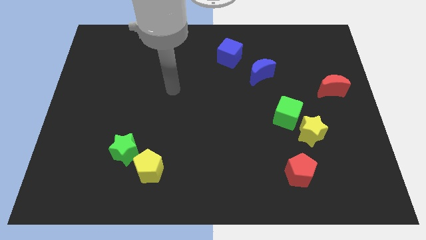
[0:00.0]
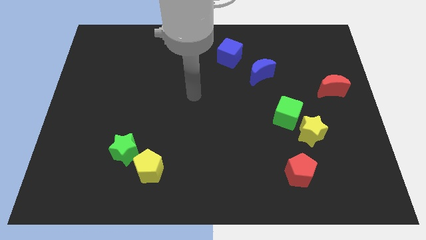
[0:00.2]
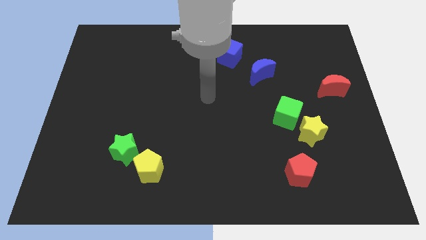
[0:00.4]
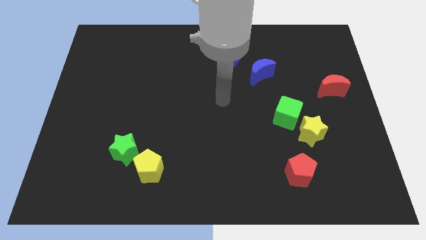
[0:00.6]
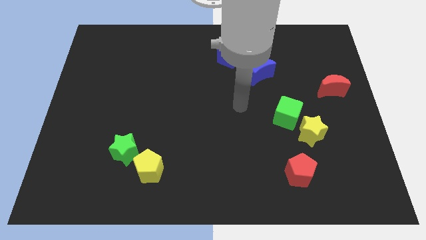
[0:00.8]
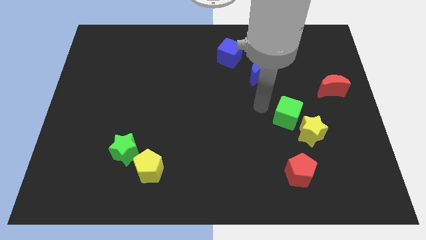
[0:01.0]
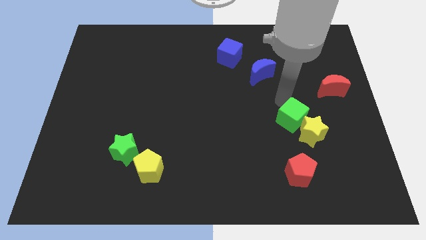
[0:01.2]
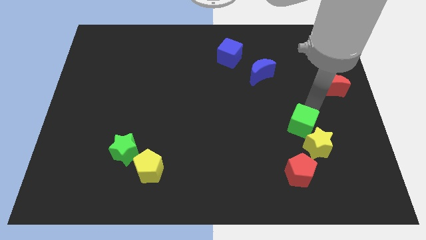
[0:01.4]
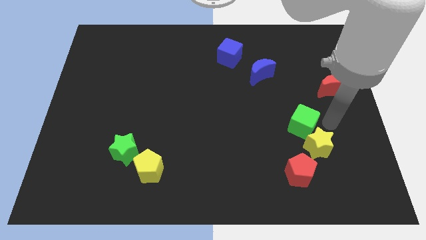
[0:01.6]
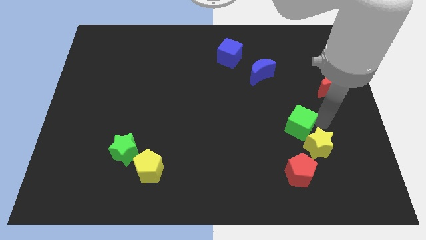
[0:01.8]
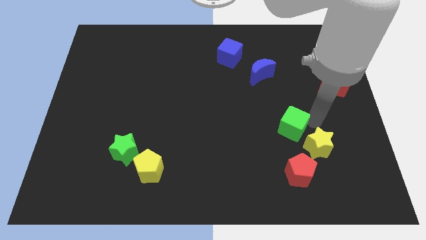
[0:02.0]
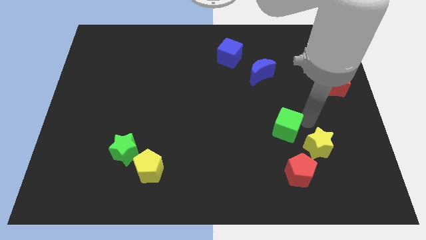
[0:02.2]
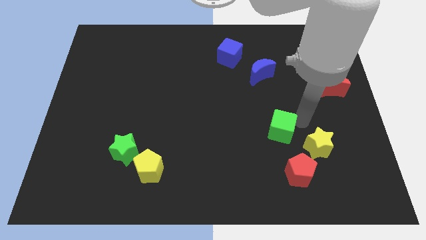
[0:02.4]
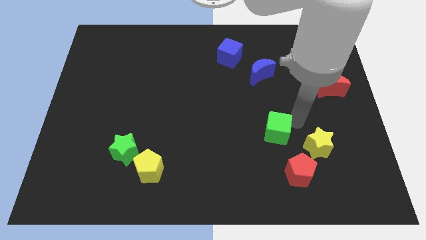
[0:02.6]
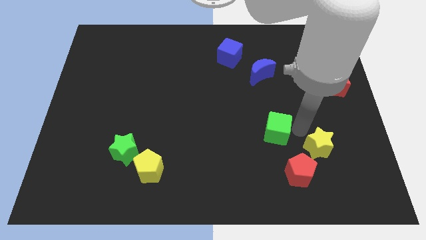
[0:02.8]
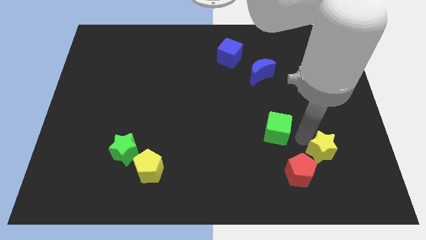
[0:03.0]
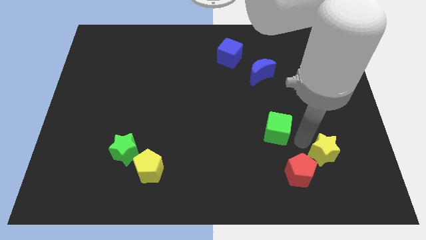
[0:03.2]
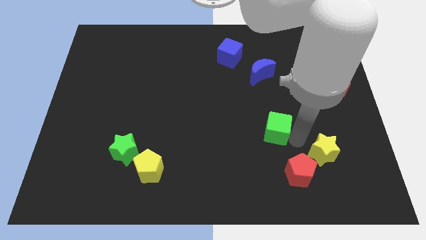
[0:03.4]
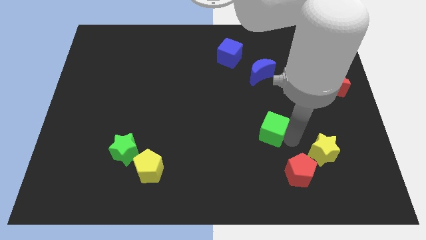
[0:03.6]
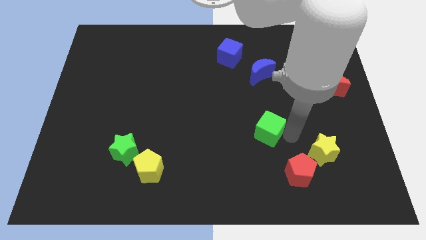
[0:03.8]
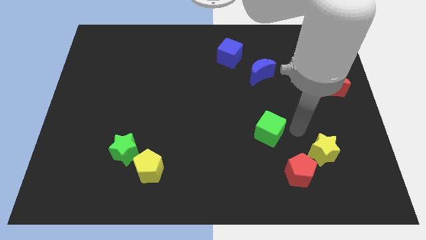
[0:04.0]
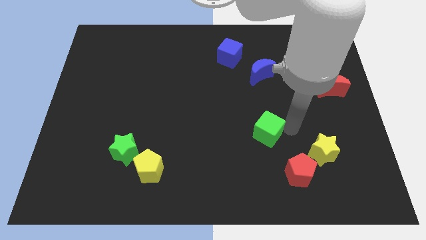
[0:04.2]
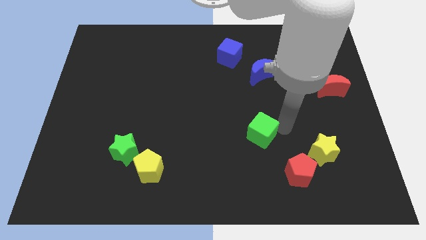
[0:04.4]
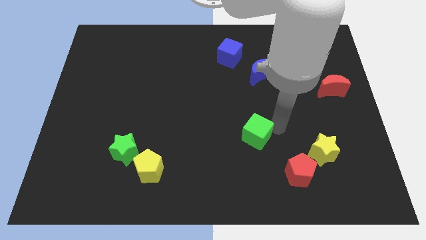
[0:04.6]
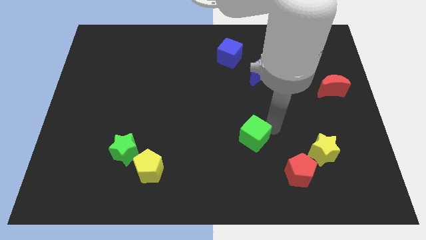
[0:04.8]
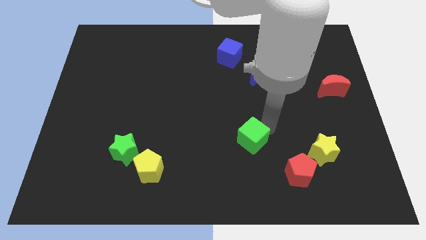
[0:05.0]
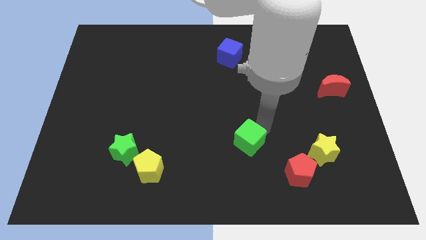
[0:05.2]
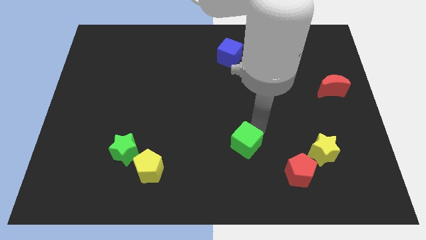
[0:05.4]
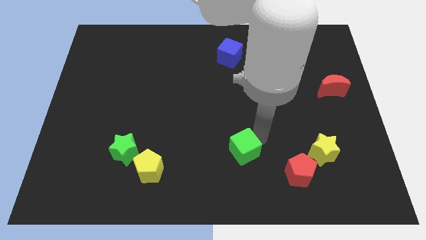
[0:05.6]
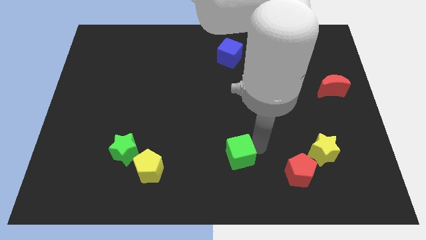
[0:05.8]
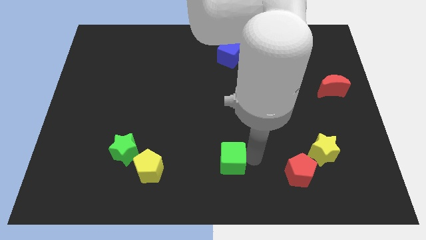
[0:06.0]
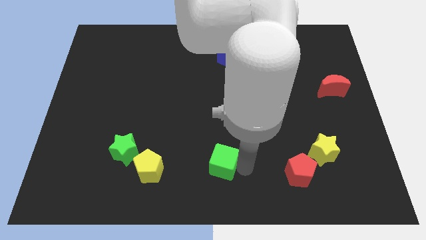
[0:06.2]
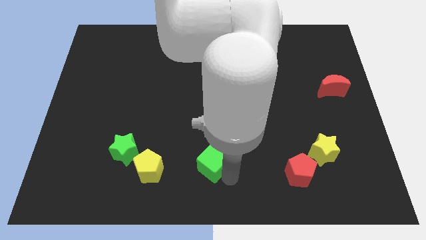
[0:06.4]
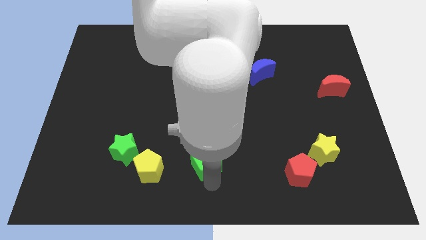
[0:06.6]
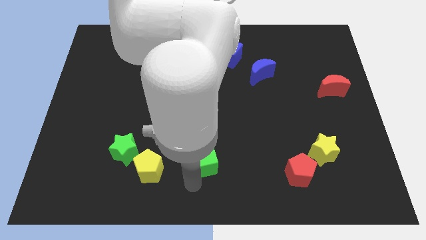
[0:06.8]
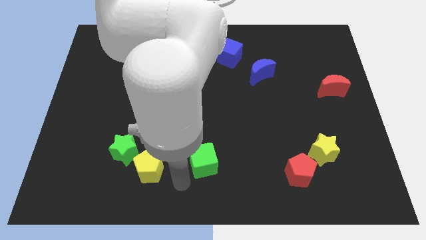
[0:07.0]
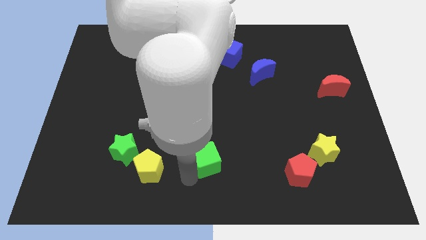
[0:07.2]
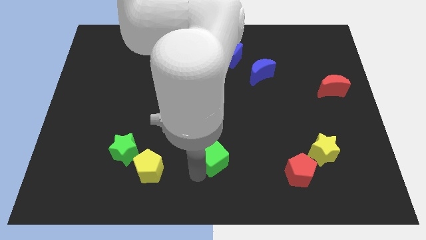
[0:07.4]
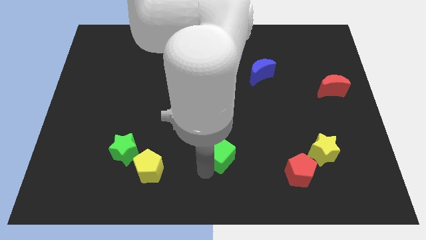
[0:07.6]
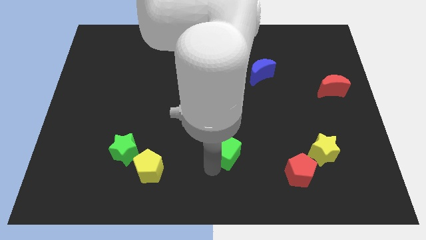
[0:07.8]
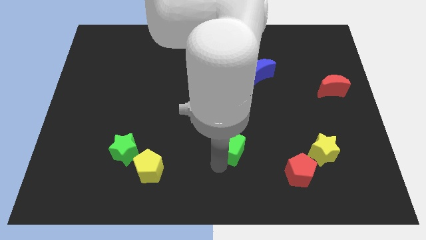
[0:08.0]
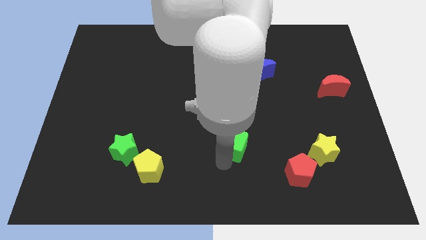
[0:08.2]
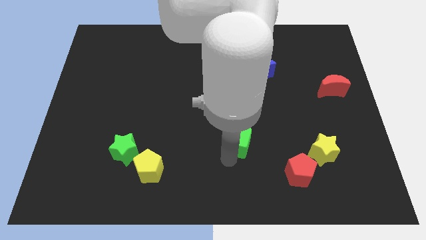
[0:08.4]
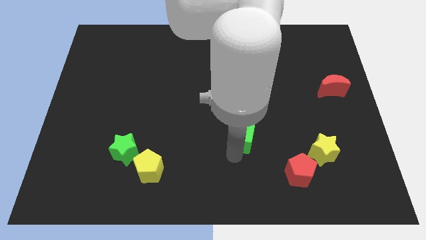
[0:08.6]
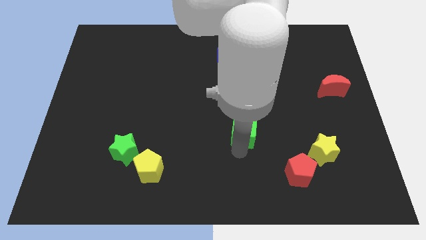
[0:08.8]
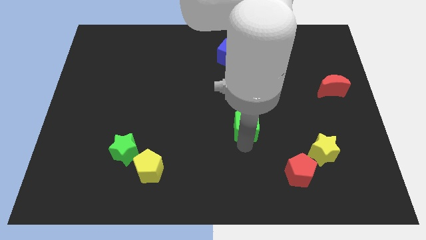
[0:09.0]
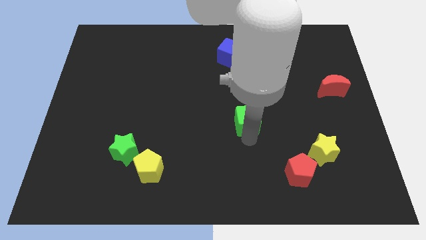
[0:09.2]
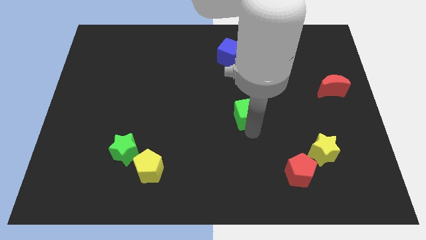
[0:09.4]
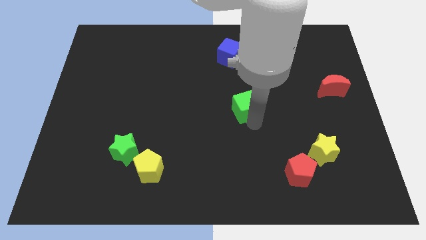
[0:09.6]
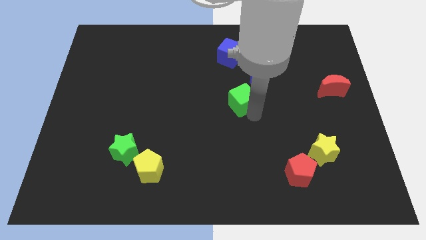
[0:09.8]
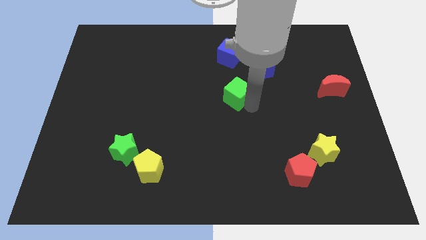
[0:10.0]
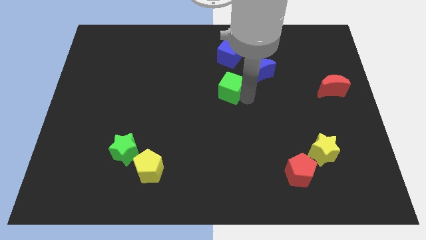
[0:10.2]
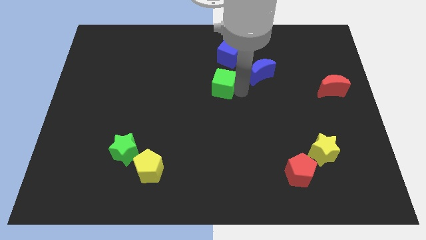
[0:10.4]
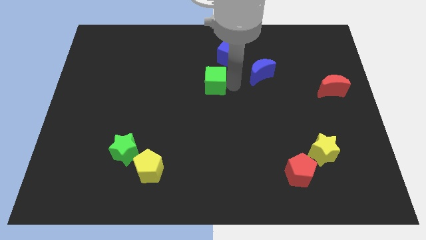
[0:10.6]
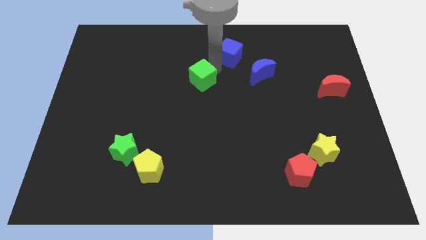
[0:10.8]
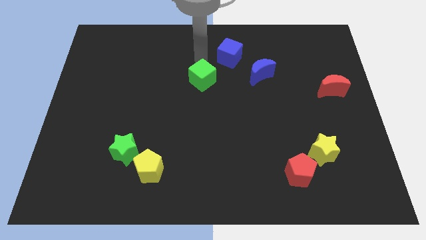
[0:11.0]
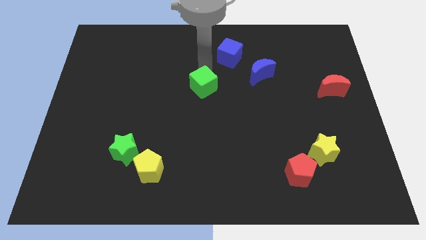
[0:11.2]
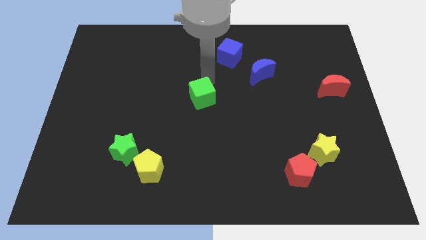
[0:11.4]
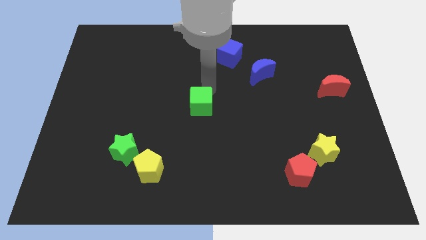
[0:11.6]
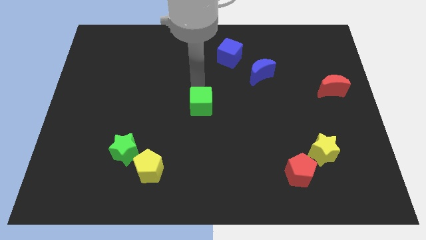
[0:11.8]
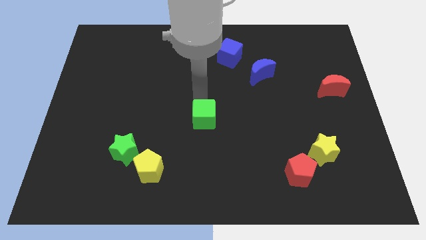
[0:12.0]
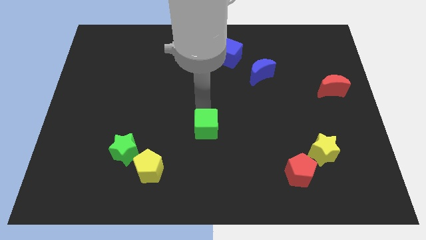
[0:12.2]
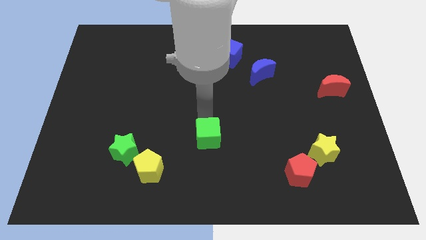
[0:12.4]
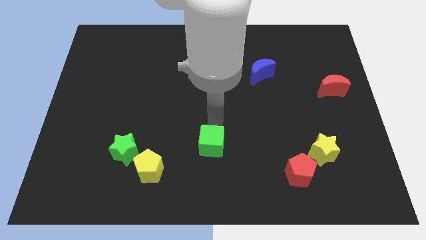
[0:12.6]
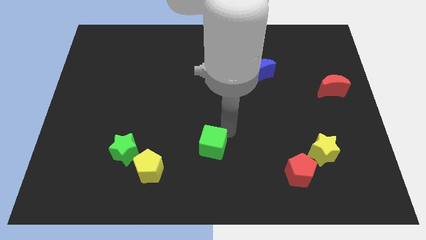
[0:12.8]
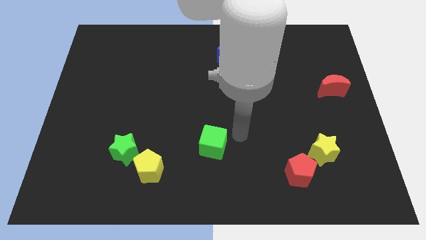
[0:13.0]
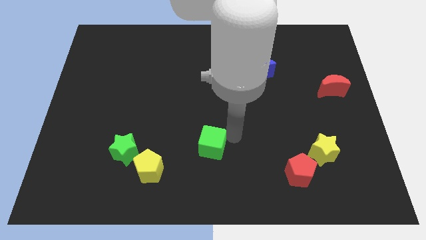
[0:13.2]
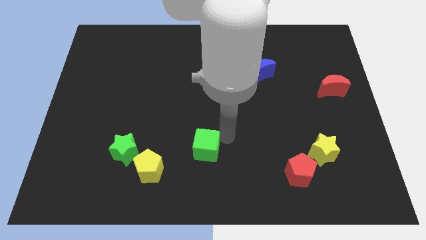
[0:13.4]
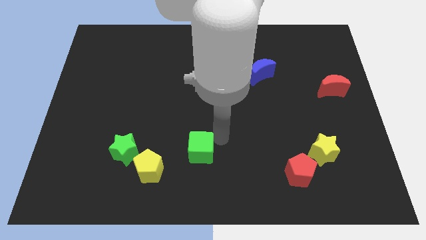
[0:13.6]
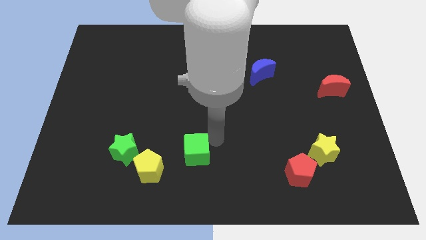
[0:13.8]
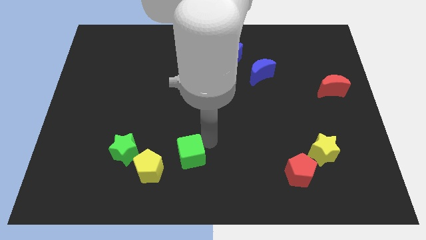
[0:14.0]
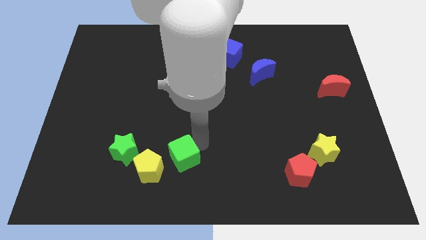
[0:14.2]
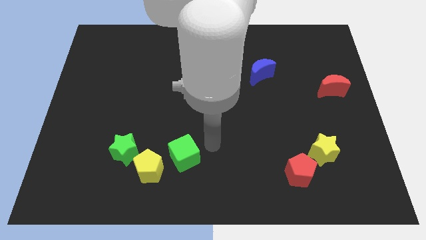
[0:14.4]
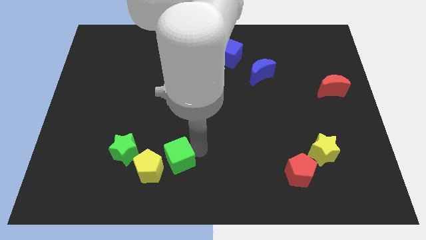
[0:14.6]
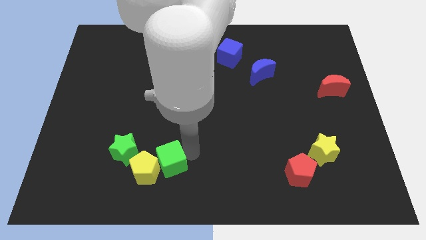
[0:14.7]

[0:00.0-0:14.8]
put the green cube towards the yellow pentagon

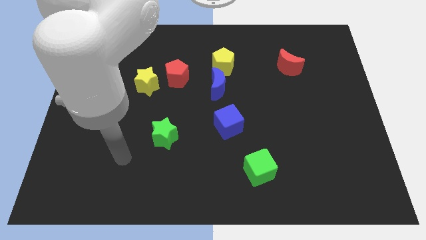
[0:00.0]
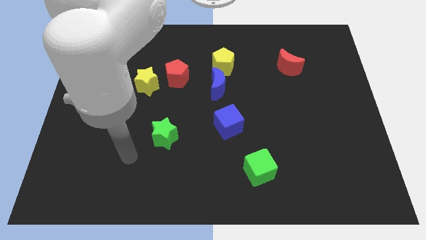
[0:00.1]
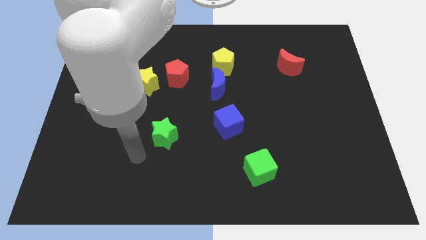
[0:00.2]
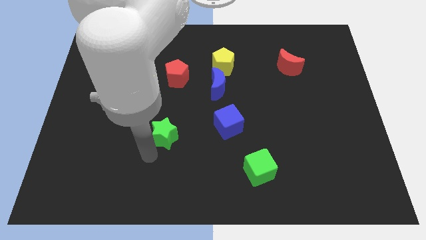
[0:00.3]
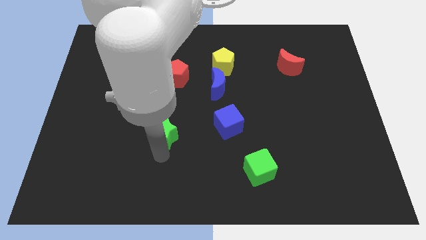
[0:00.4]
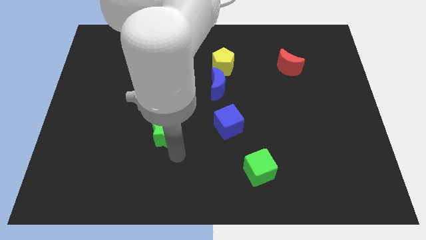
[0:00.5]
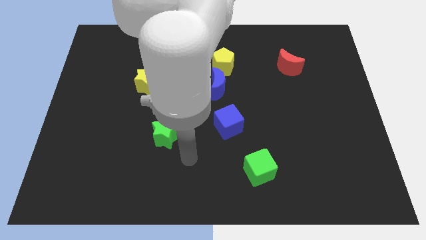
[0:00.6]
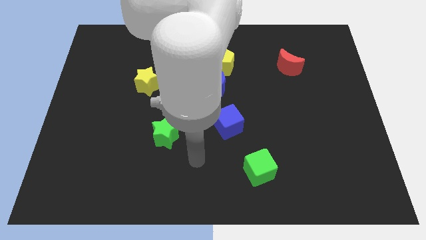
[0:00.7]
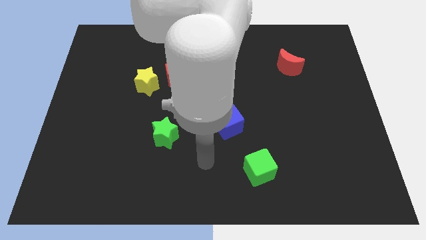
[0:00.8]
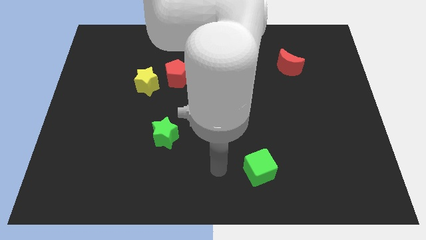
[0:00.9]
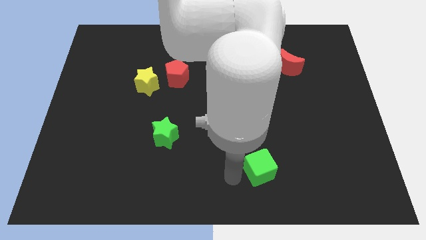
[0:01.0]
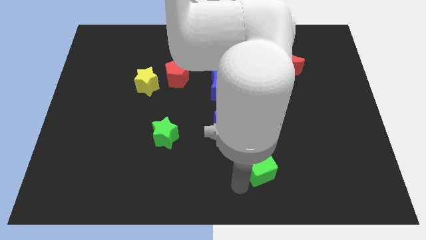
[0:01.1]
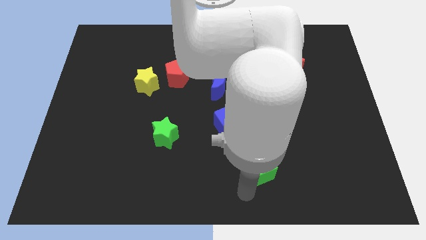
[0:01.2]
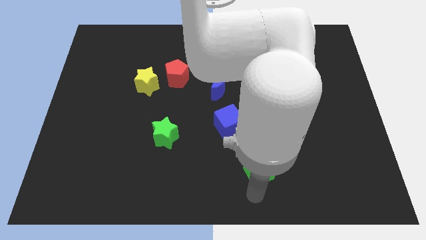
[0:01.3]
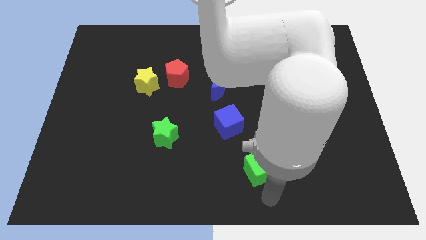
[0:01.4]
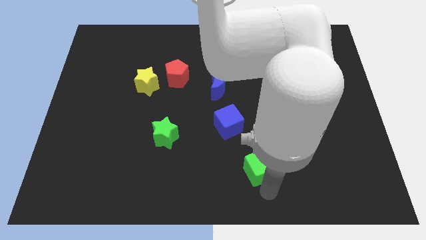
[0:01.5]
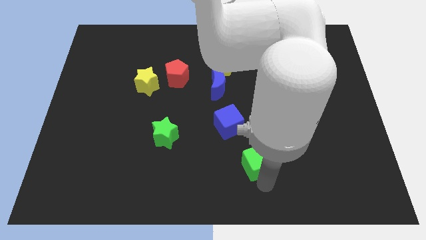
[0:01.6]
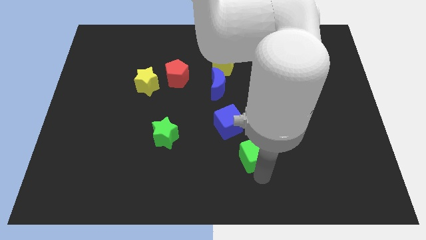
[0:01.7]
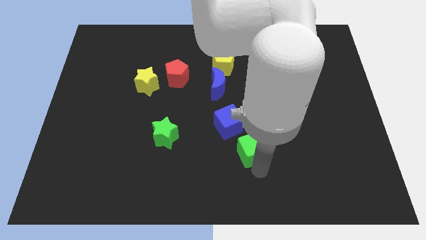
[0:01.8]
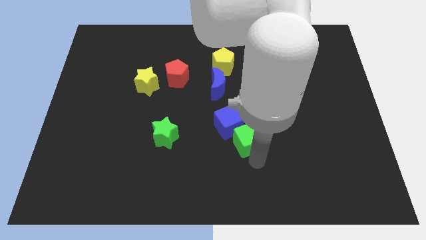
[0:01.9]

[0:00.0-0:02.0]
put the green cube close to the blue cube
